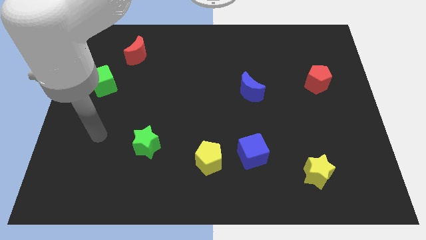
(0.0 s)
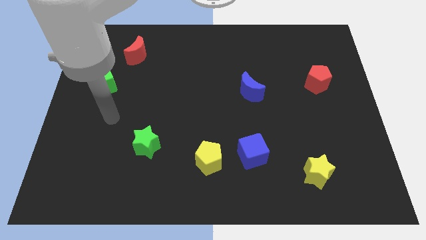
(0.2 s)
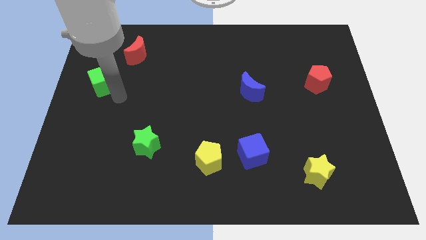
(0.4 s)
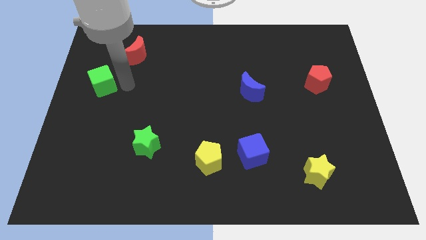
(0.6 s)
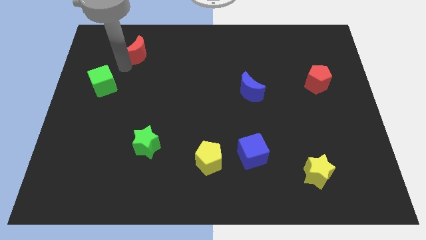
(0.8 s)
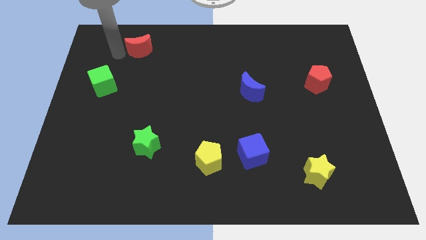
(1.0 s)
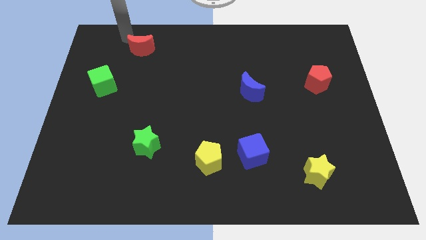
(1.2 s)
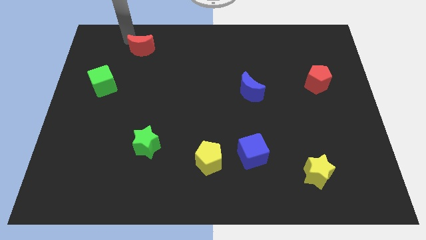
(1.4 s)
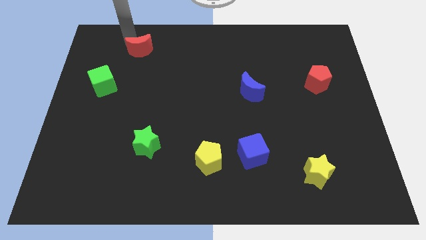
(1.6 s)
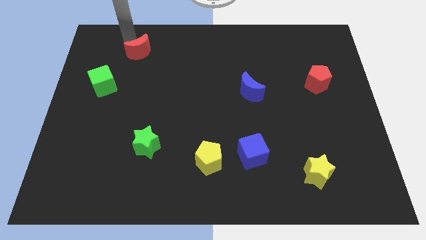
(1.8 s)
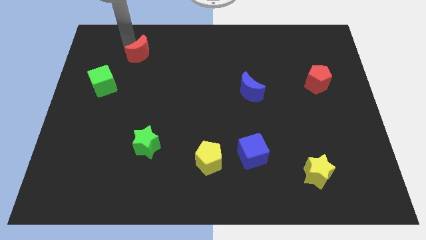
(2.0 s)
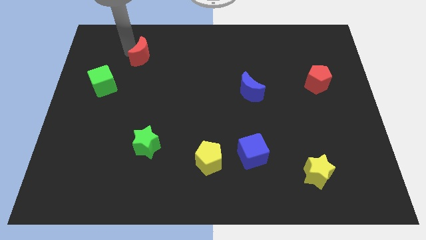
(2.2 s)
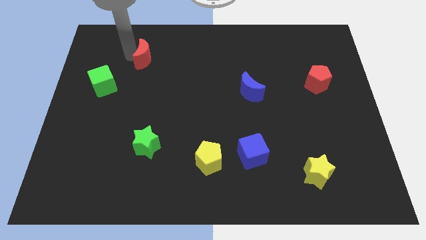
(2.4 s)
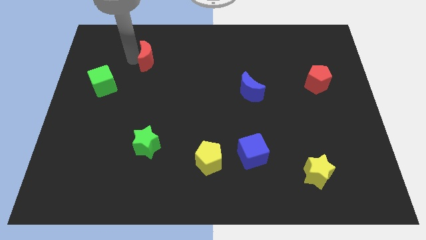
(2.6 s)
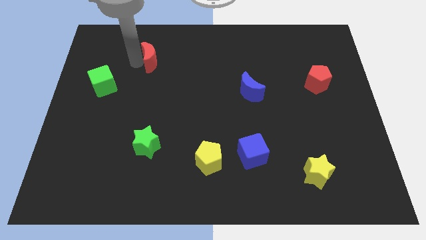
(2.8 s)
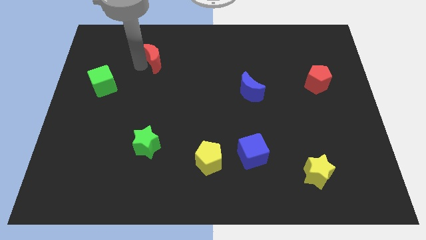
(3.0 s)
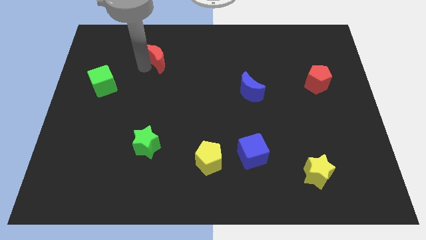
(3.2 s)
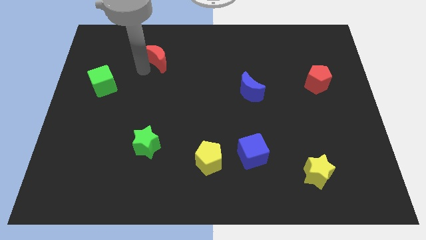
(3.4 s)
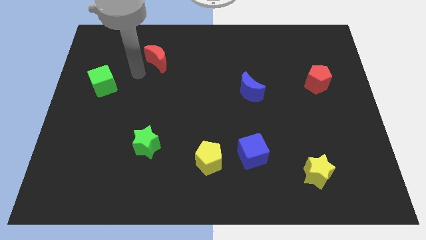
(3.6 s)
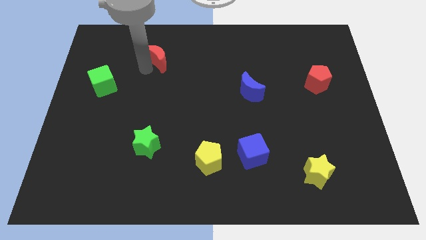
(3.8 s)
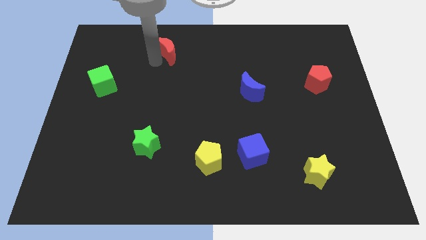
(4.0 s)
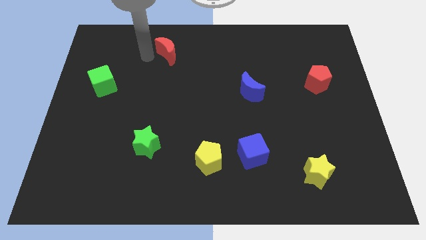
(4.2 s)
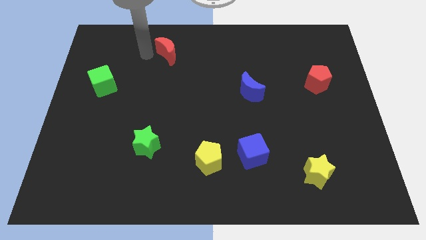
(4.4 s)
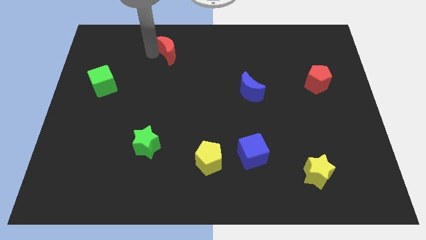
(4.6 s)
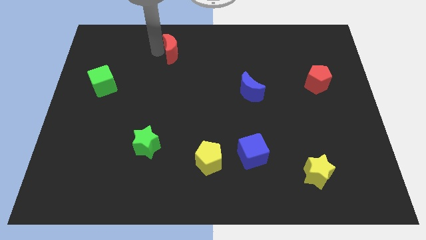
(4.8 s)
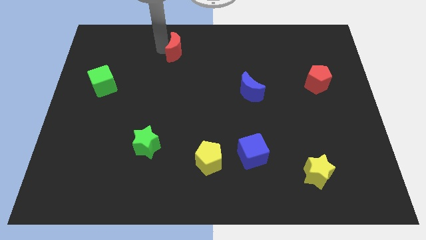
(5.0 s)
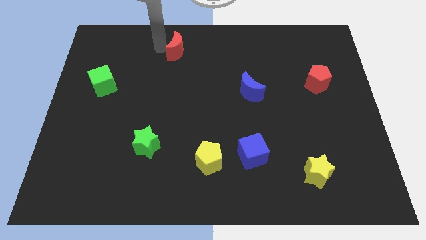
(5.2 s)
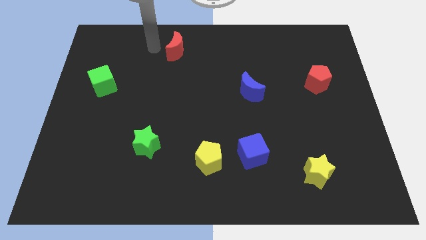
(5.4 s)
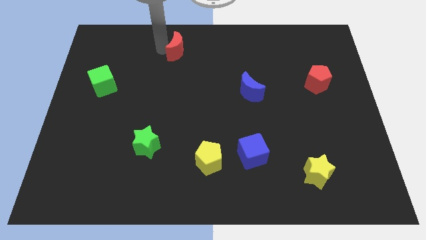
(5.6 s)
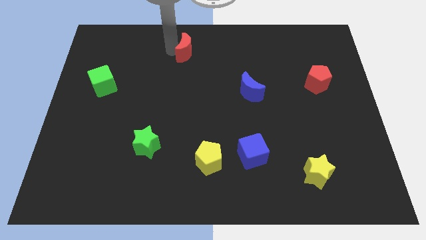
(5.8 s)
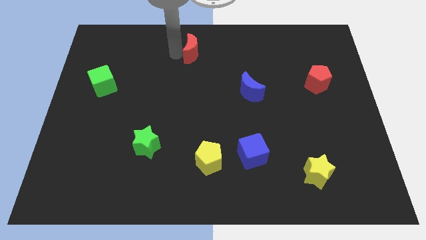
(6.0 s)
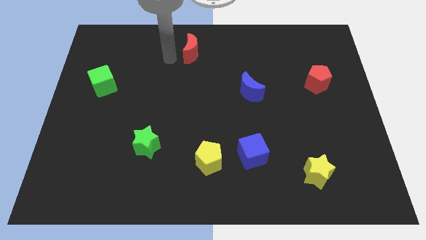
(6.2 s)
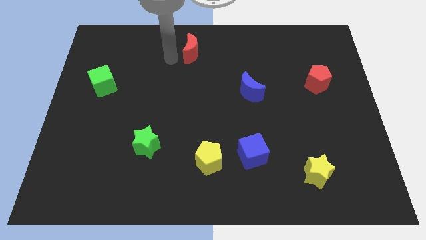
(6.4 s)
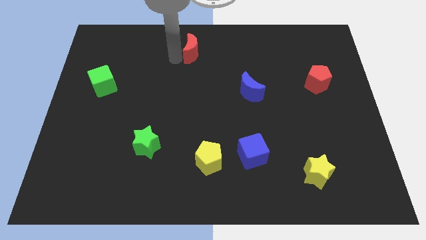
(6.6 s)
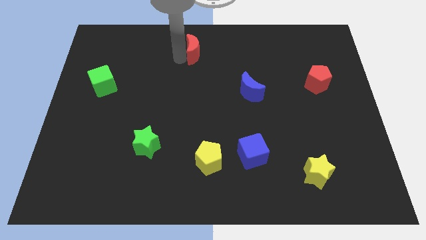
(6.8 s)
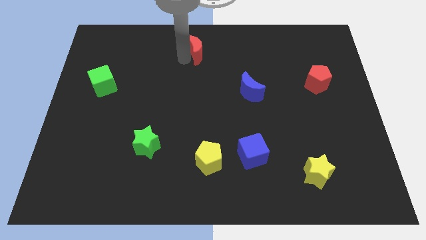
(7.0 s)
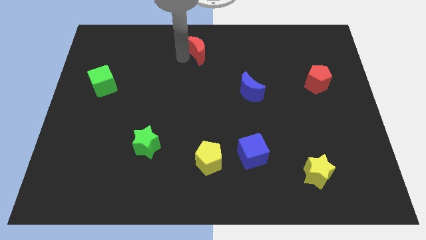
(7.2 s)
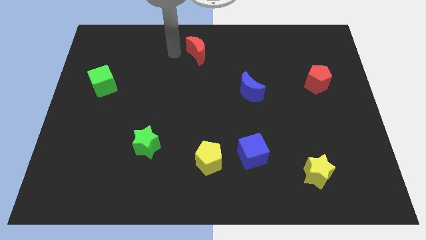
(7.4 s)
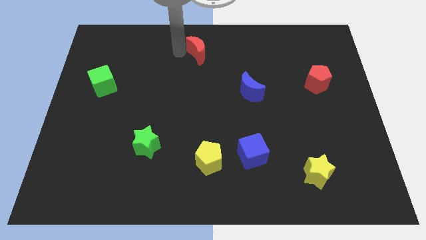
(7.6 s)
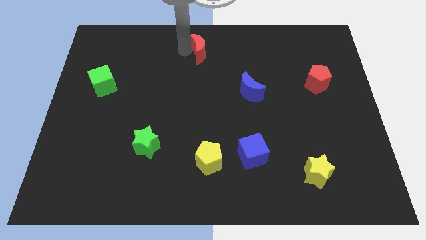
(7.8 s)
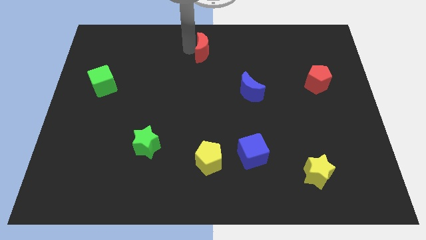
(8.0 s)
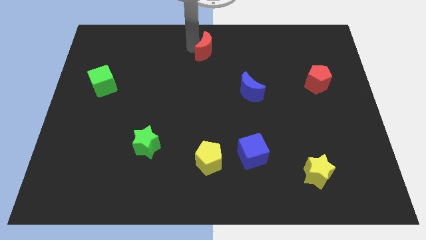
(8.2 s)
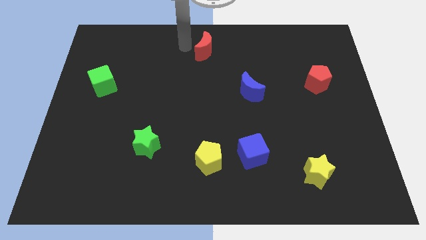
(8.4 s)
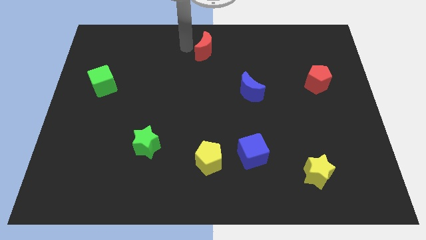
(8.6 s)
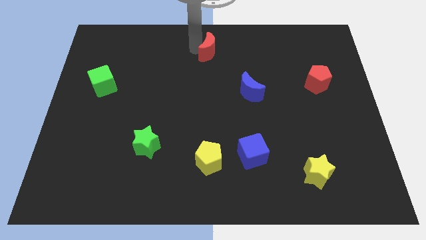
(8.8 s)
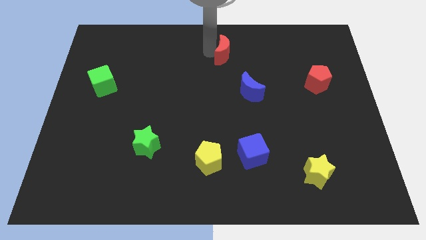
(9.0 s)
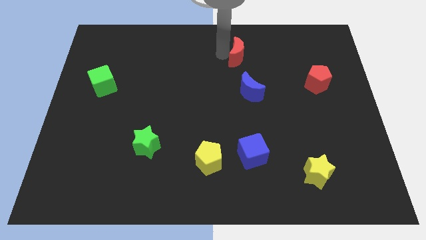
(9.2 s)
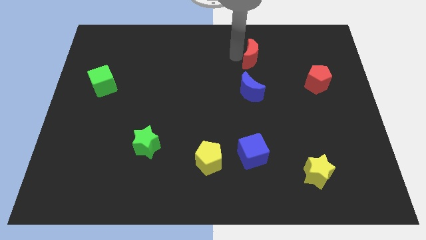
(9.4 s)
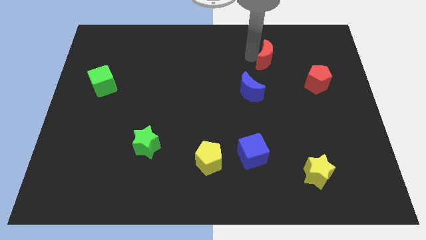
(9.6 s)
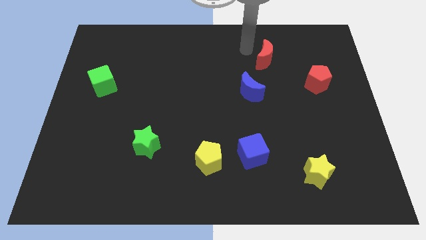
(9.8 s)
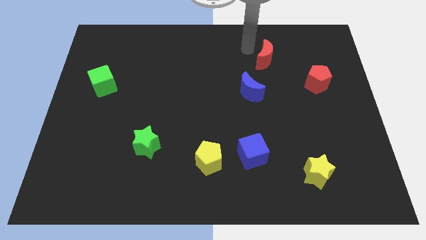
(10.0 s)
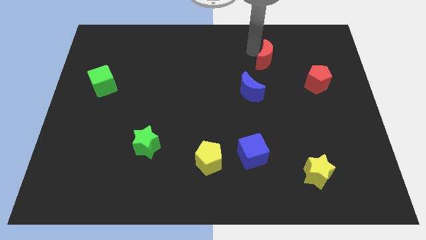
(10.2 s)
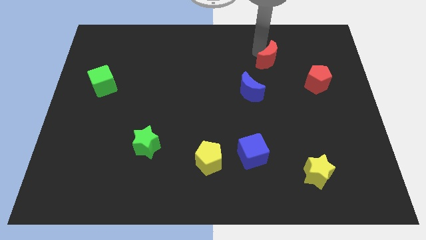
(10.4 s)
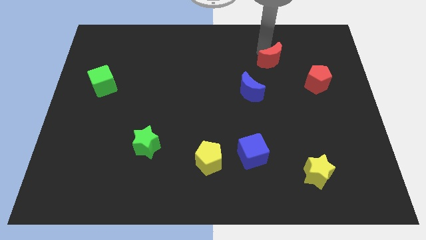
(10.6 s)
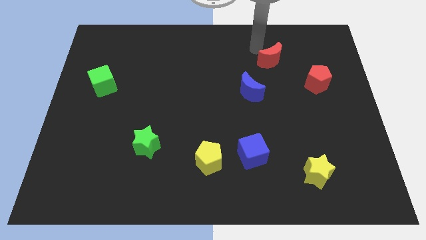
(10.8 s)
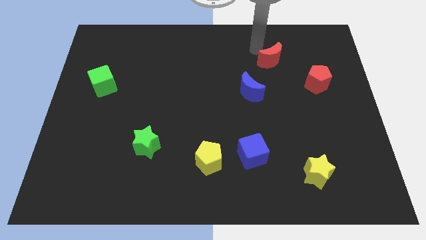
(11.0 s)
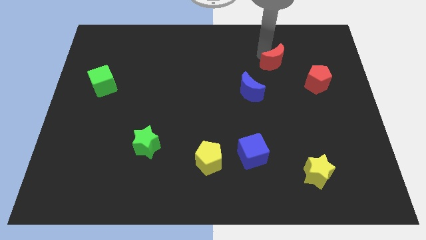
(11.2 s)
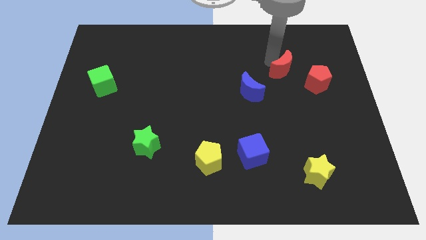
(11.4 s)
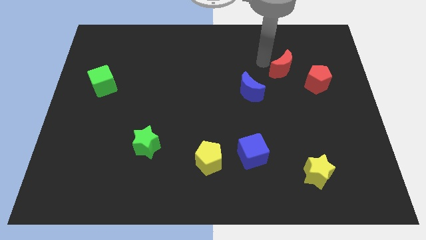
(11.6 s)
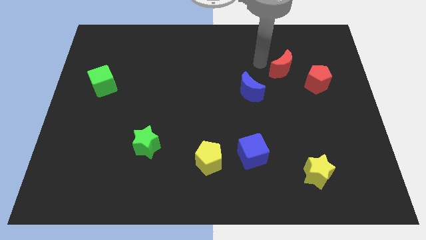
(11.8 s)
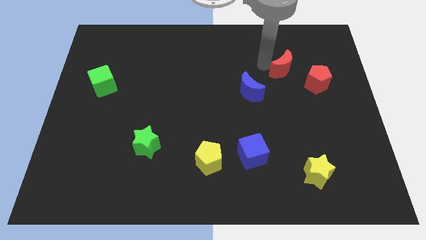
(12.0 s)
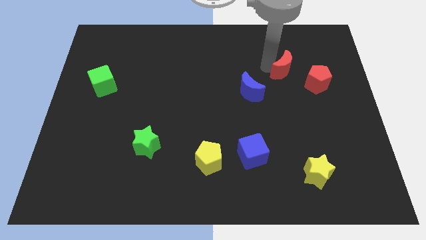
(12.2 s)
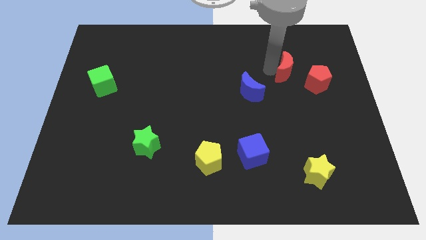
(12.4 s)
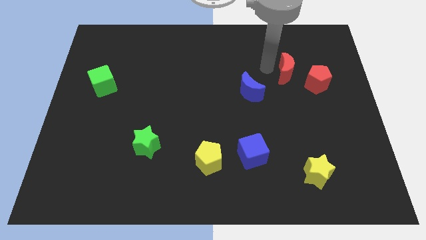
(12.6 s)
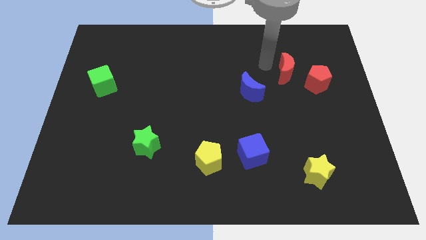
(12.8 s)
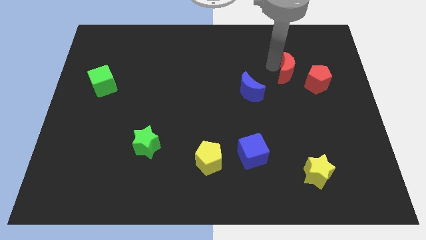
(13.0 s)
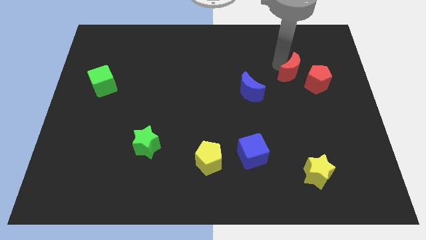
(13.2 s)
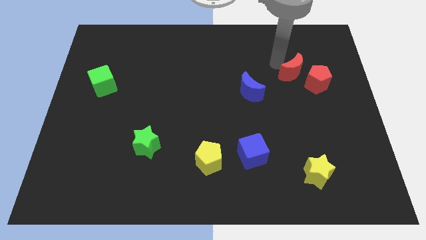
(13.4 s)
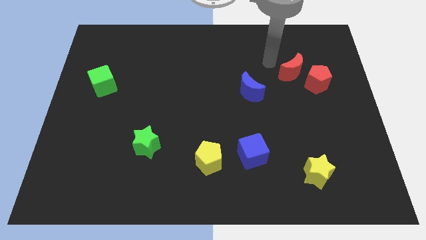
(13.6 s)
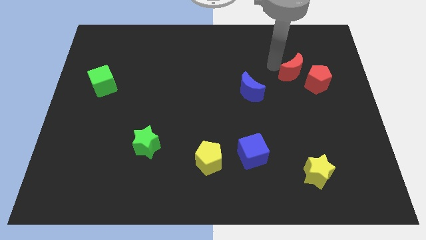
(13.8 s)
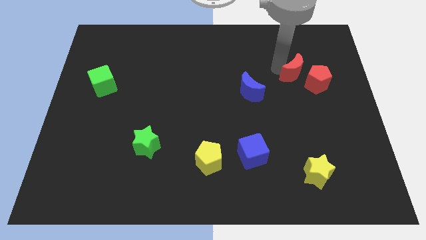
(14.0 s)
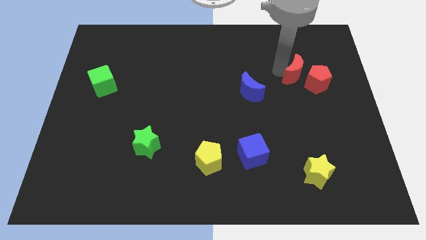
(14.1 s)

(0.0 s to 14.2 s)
slide the red moon to the red pentagon

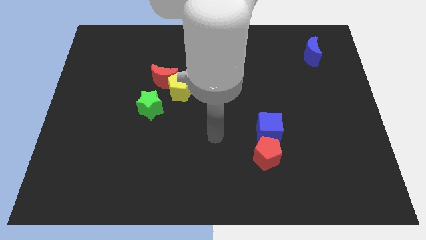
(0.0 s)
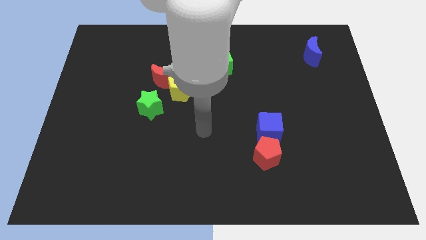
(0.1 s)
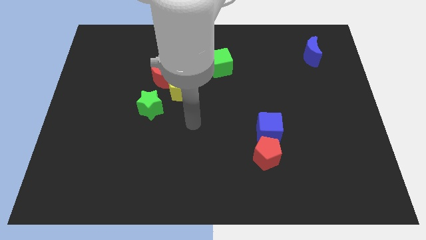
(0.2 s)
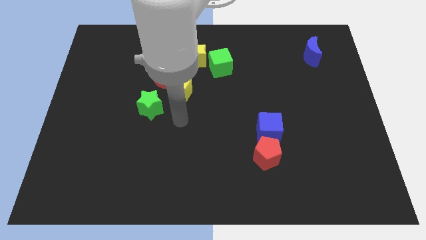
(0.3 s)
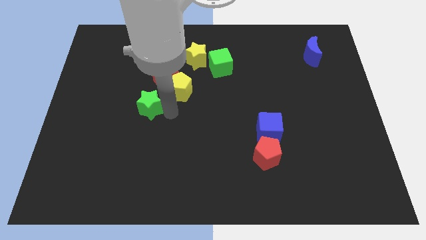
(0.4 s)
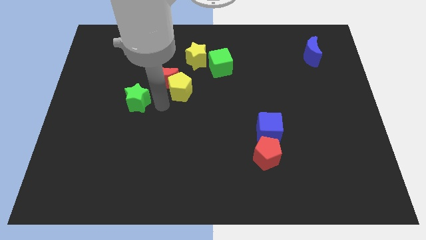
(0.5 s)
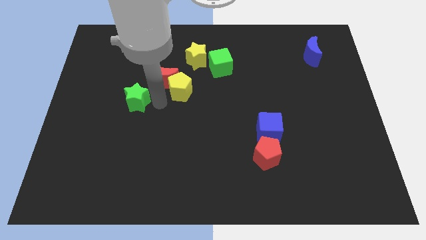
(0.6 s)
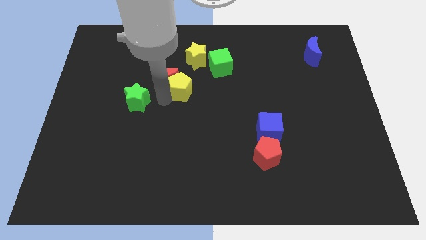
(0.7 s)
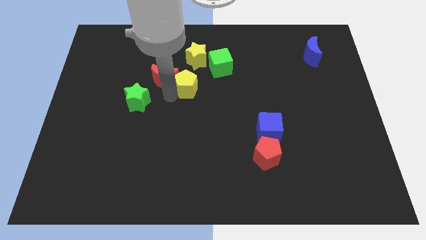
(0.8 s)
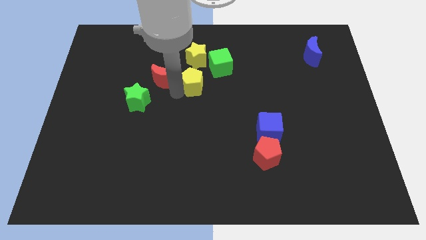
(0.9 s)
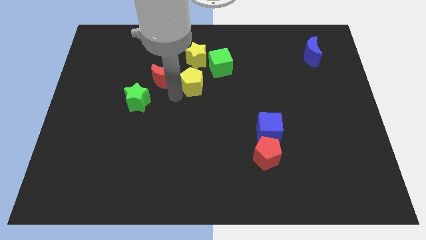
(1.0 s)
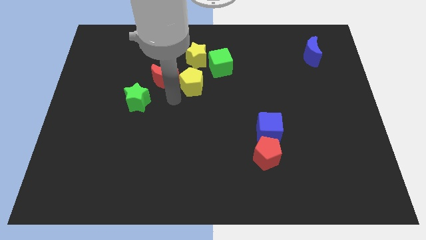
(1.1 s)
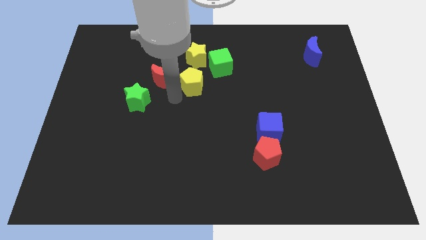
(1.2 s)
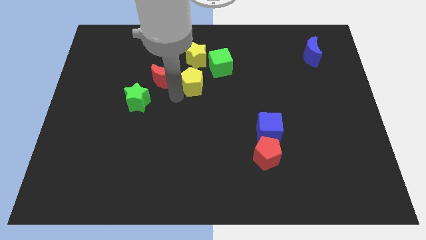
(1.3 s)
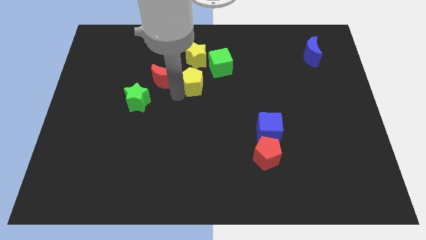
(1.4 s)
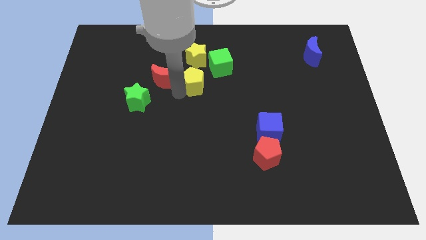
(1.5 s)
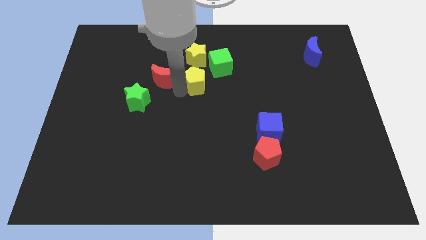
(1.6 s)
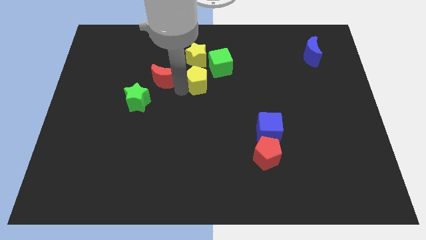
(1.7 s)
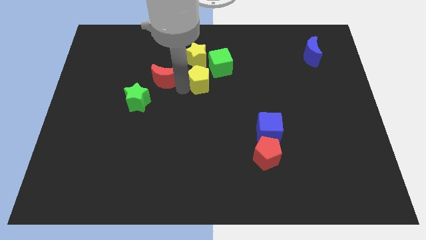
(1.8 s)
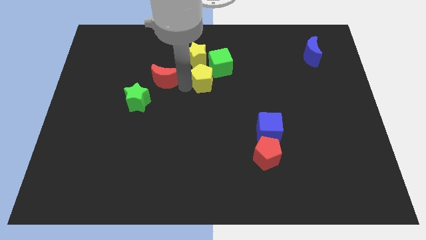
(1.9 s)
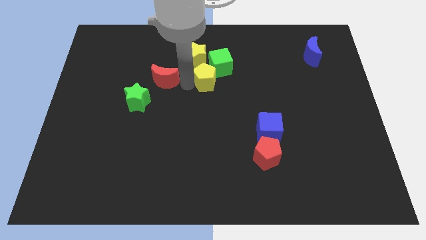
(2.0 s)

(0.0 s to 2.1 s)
push the yellow pentagon to the green cube
